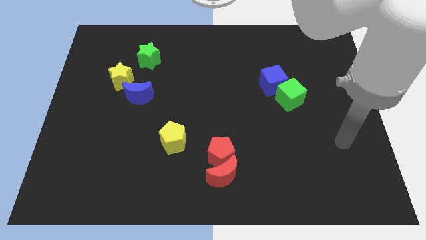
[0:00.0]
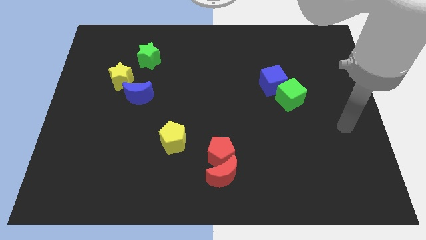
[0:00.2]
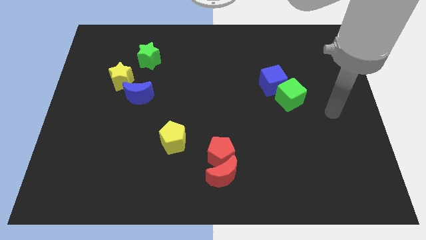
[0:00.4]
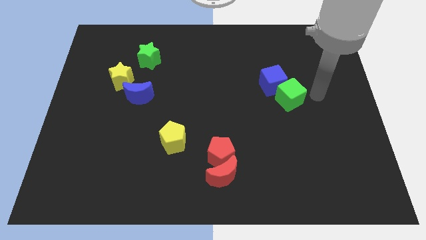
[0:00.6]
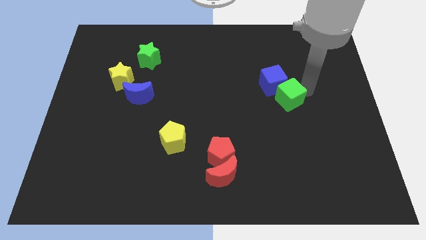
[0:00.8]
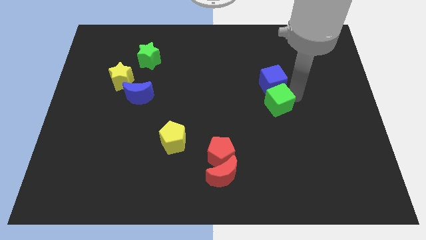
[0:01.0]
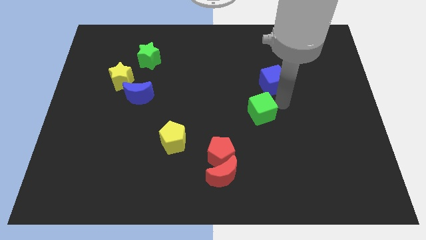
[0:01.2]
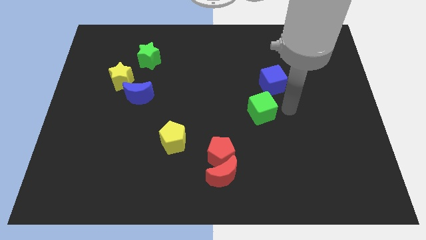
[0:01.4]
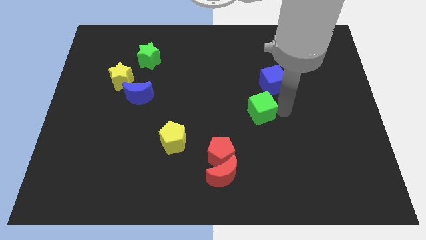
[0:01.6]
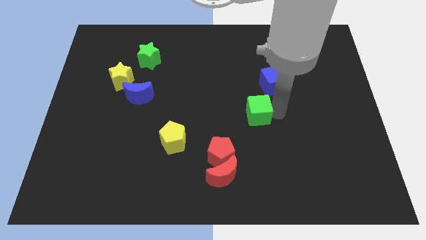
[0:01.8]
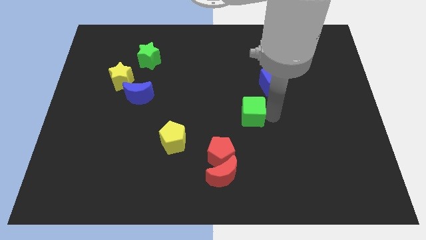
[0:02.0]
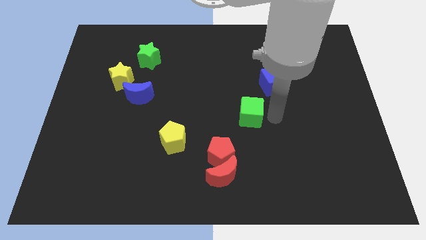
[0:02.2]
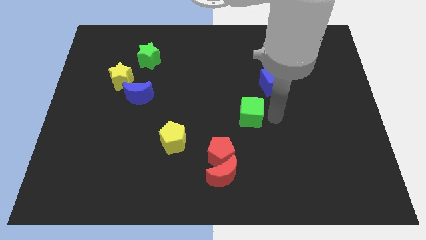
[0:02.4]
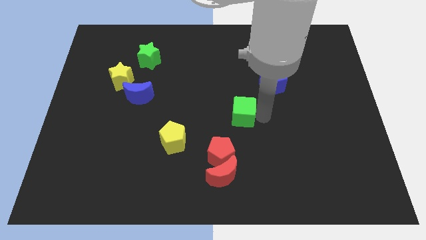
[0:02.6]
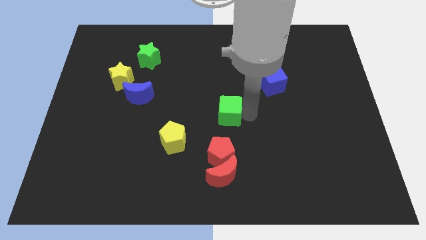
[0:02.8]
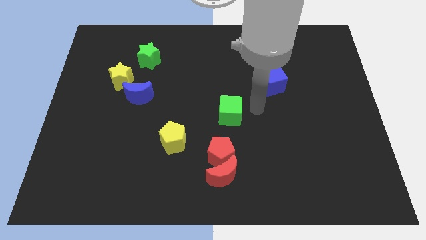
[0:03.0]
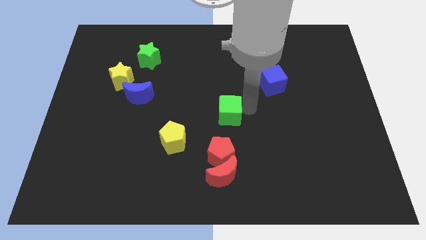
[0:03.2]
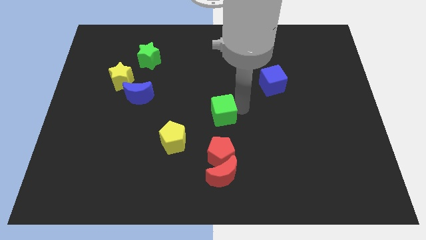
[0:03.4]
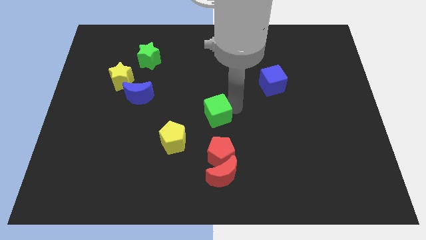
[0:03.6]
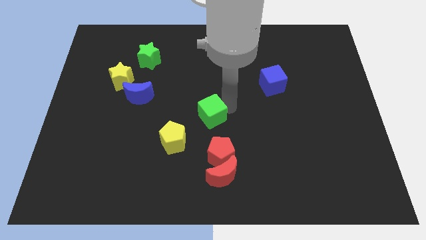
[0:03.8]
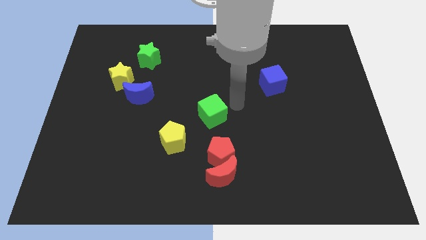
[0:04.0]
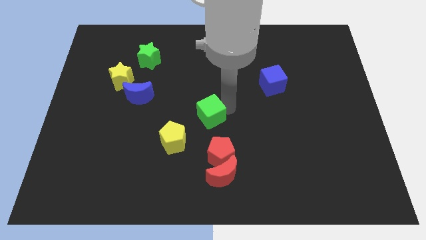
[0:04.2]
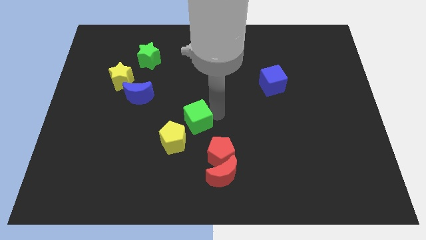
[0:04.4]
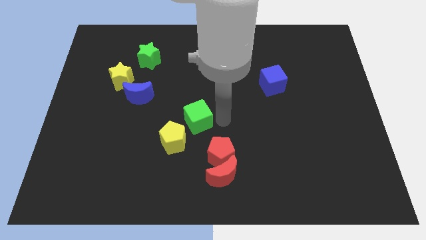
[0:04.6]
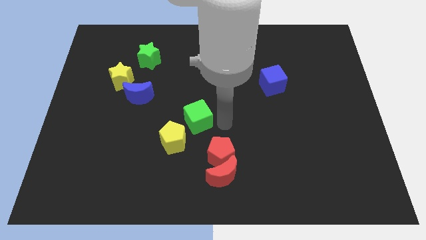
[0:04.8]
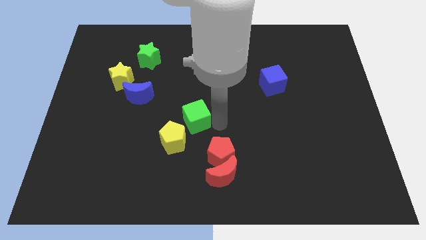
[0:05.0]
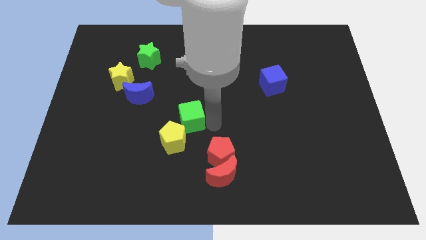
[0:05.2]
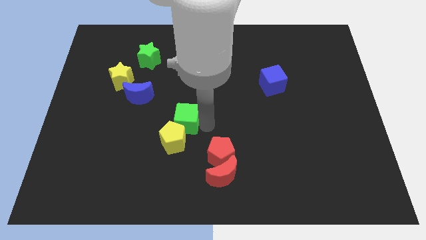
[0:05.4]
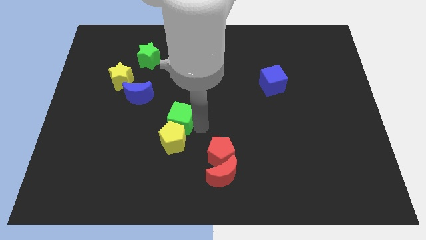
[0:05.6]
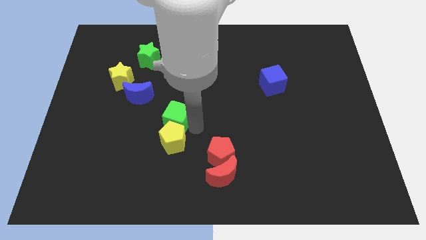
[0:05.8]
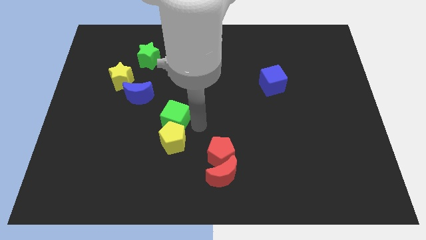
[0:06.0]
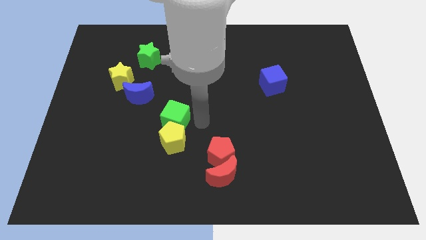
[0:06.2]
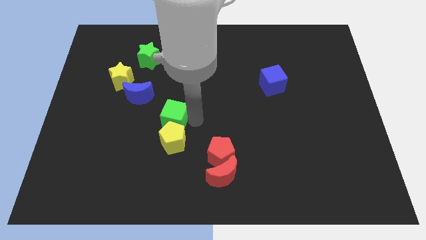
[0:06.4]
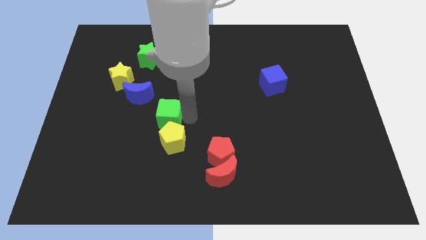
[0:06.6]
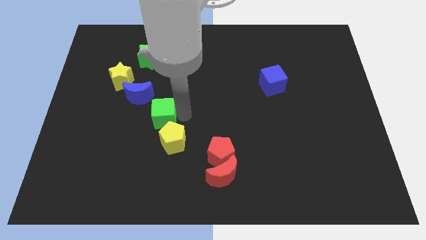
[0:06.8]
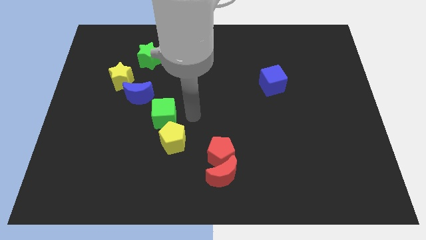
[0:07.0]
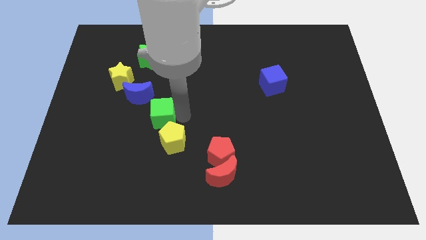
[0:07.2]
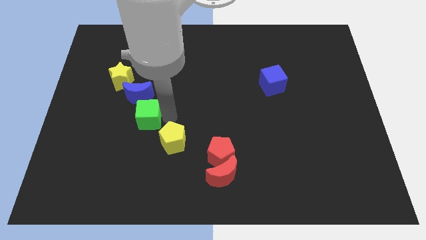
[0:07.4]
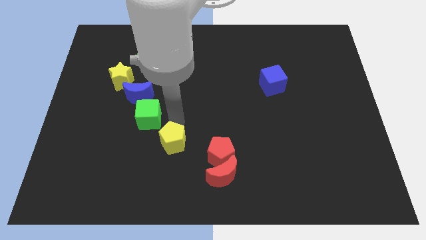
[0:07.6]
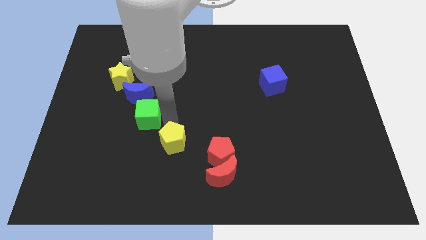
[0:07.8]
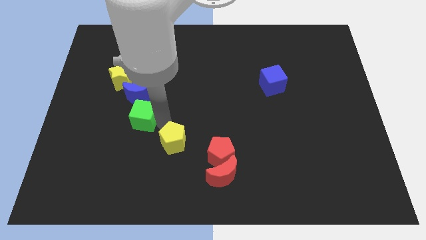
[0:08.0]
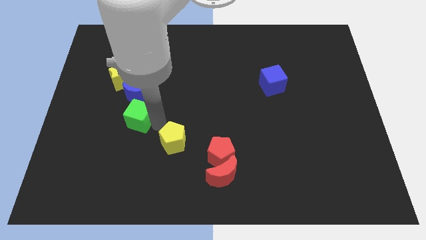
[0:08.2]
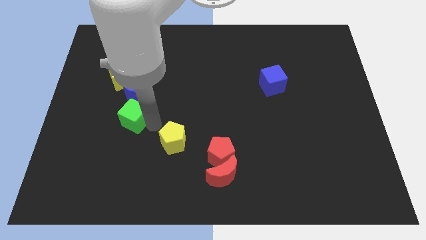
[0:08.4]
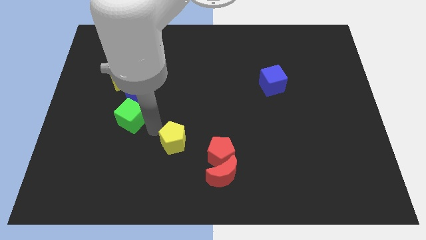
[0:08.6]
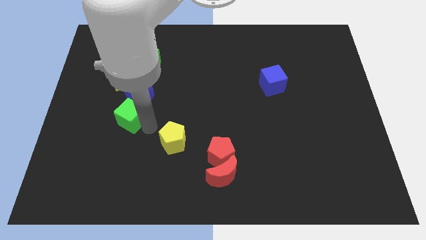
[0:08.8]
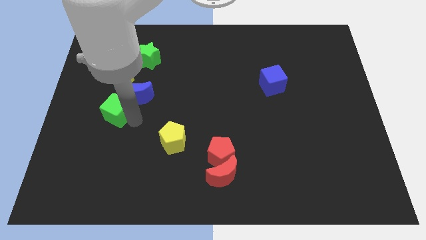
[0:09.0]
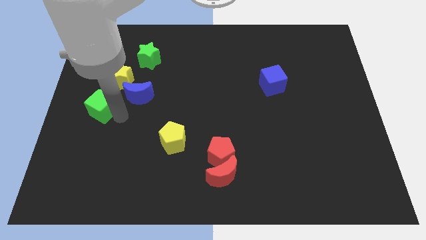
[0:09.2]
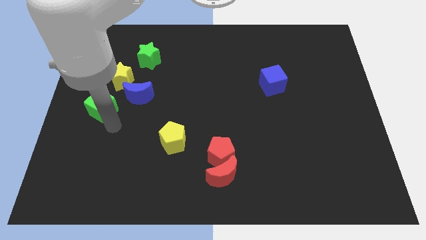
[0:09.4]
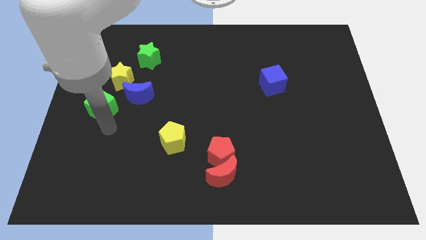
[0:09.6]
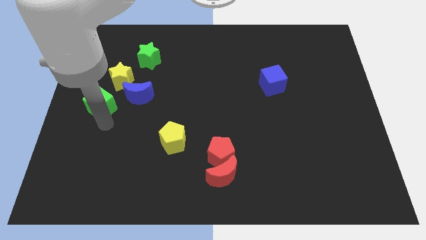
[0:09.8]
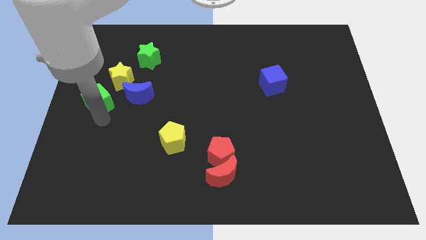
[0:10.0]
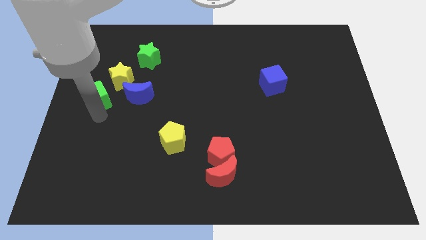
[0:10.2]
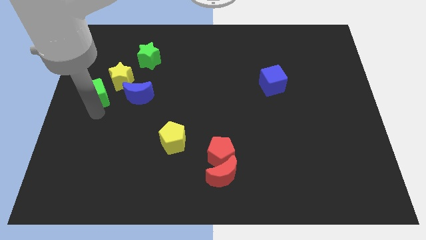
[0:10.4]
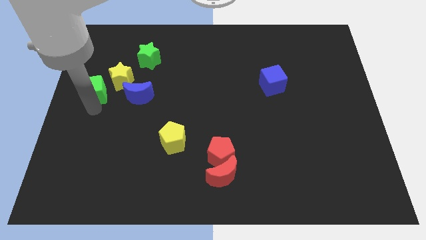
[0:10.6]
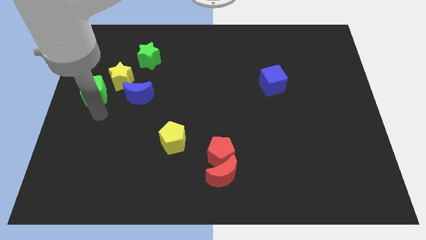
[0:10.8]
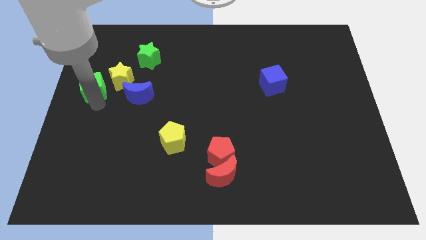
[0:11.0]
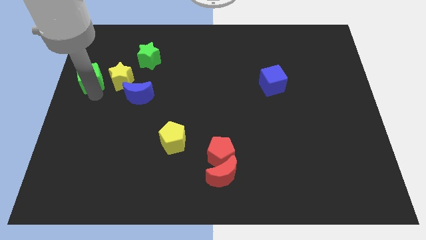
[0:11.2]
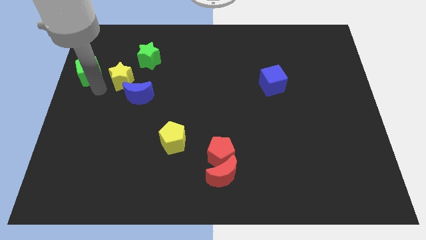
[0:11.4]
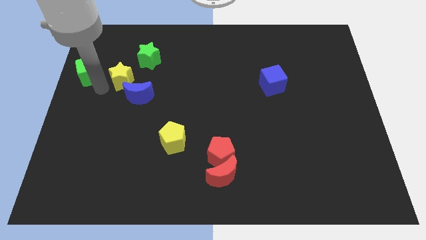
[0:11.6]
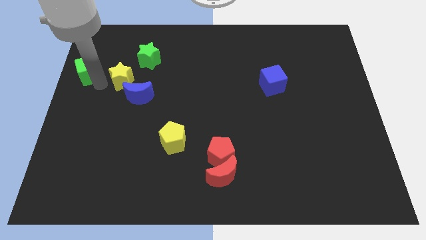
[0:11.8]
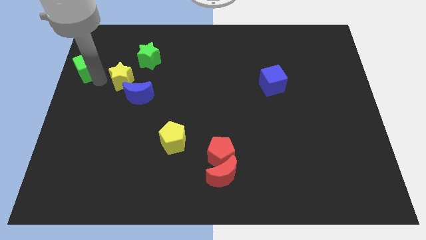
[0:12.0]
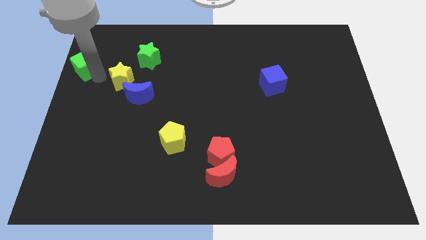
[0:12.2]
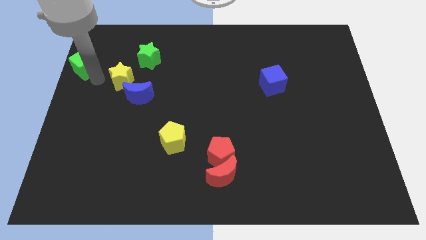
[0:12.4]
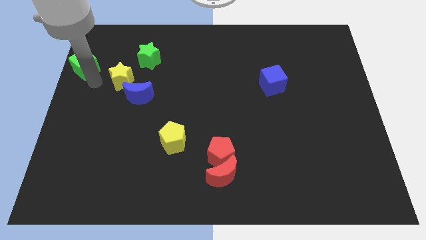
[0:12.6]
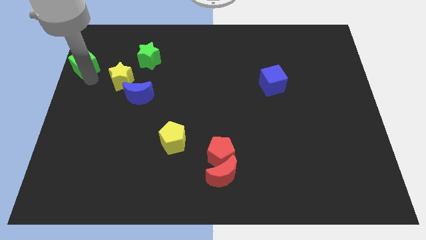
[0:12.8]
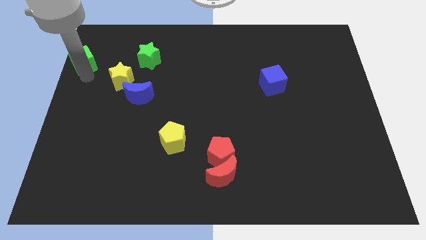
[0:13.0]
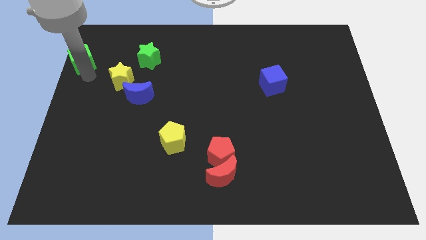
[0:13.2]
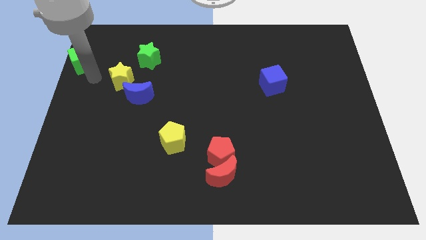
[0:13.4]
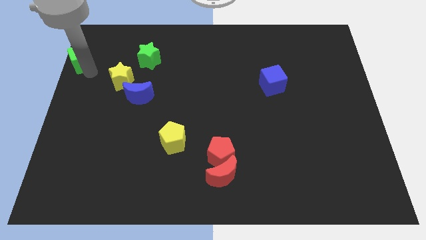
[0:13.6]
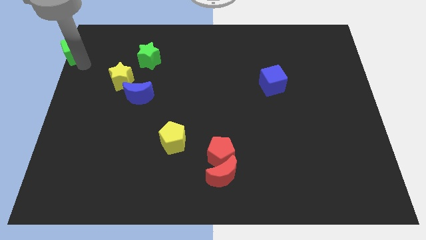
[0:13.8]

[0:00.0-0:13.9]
slide the green cube to the top left
